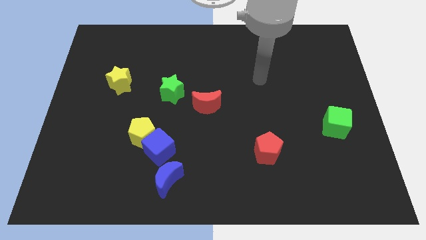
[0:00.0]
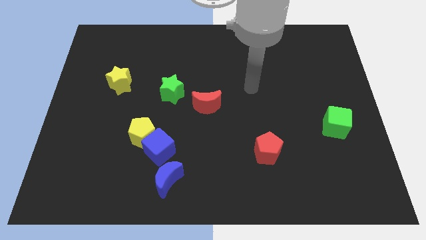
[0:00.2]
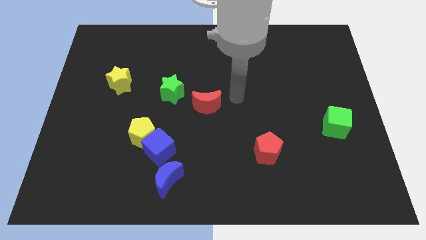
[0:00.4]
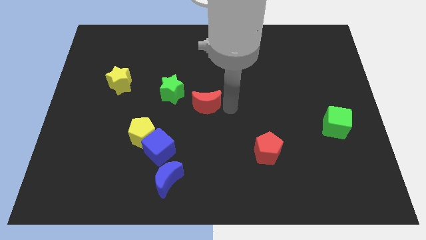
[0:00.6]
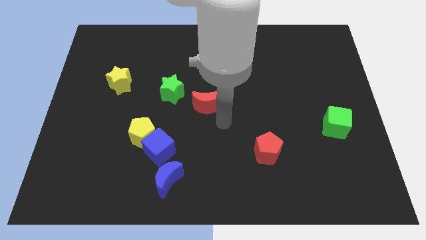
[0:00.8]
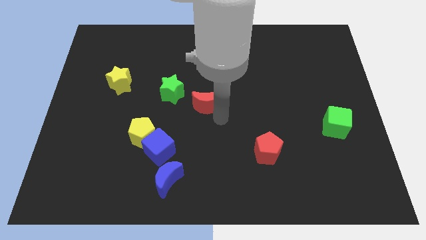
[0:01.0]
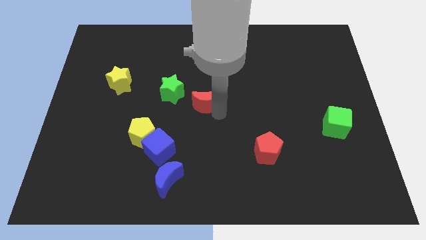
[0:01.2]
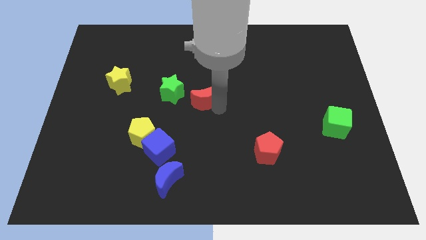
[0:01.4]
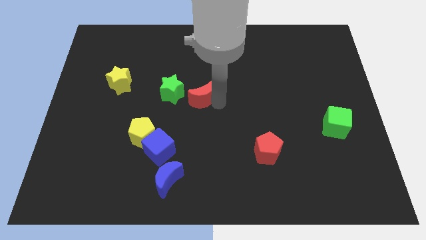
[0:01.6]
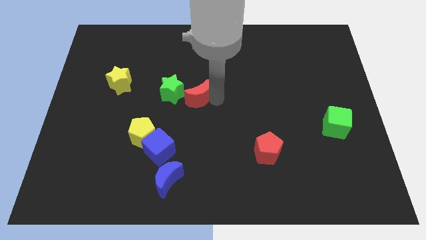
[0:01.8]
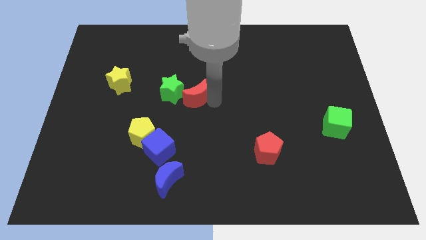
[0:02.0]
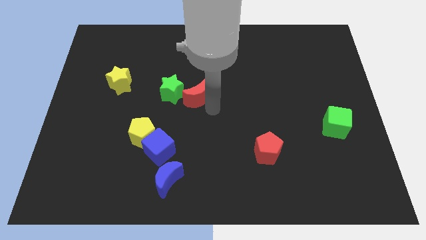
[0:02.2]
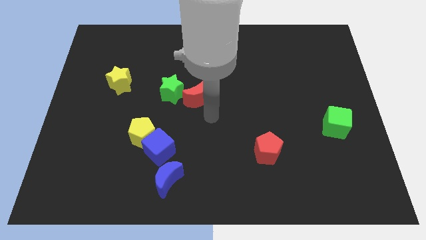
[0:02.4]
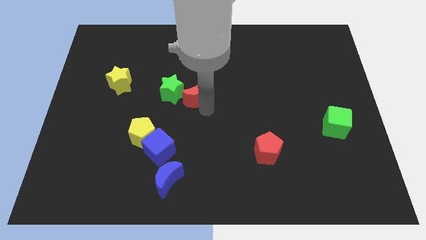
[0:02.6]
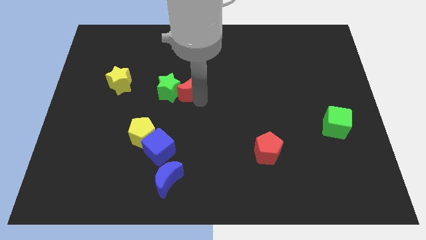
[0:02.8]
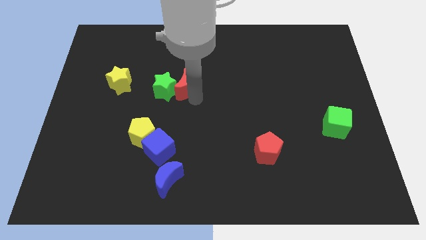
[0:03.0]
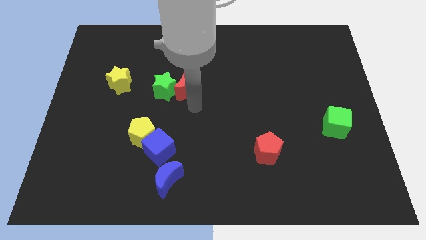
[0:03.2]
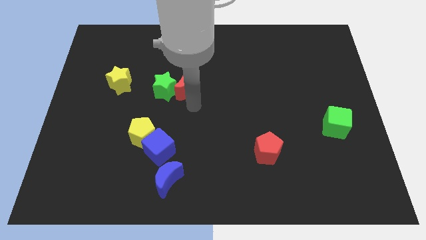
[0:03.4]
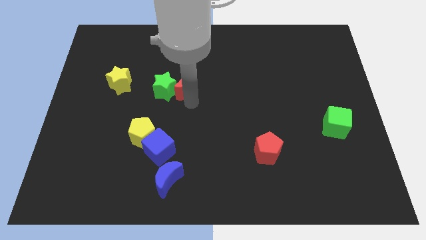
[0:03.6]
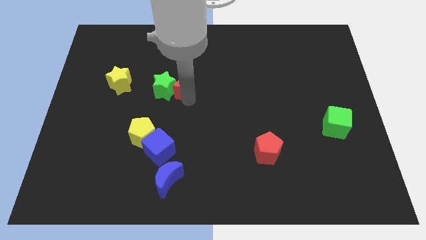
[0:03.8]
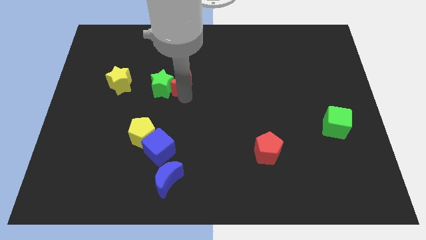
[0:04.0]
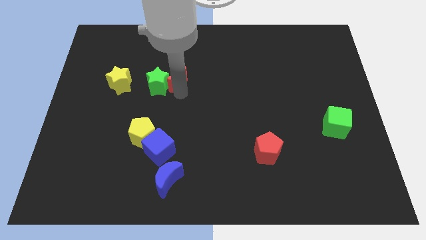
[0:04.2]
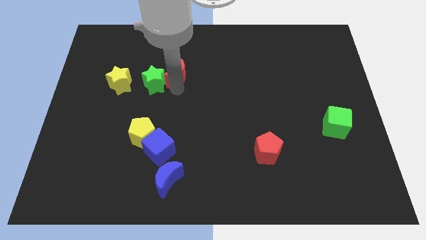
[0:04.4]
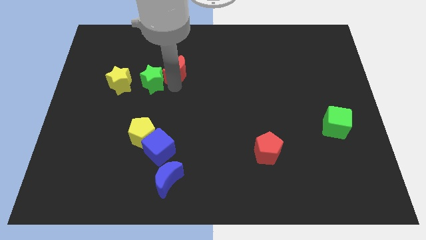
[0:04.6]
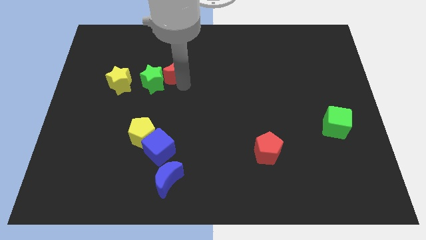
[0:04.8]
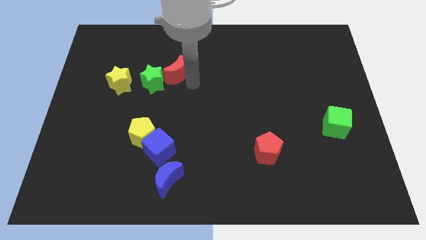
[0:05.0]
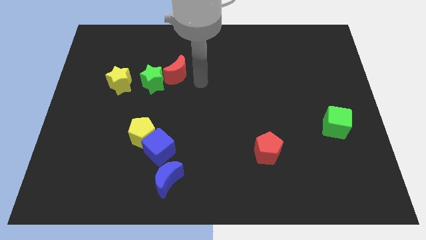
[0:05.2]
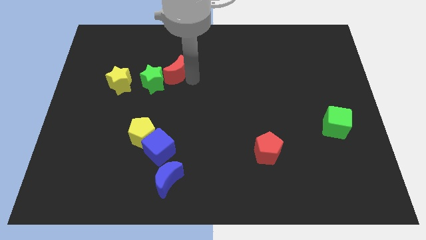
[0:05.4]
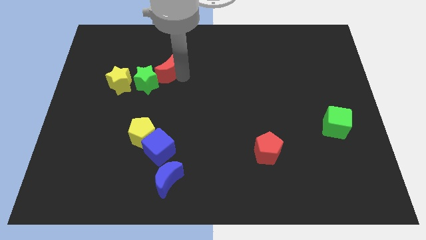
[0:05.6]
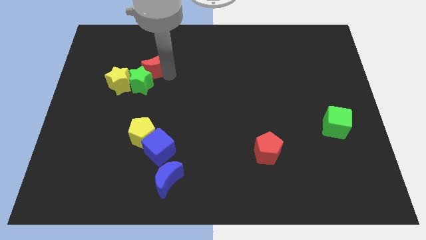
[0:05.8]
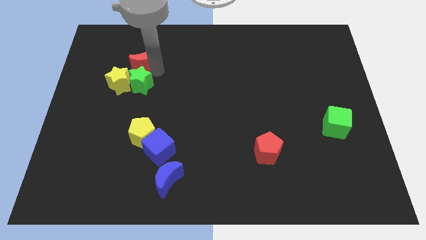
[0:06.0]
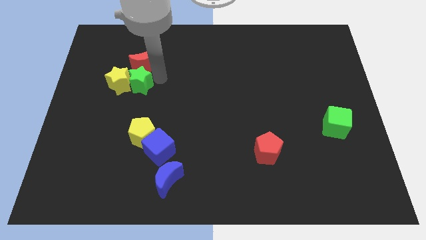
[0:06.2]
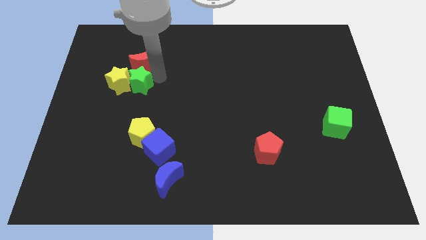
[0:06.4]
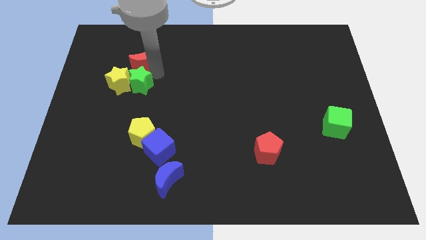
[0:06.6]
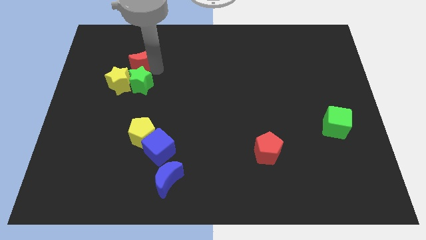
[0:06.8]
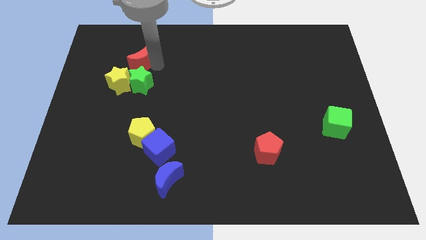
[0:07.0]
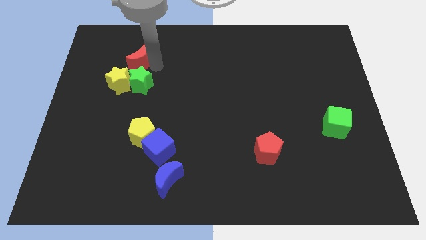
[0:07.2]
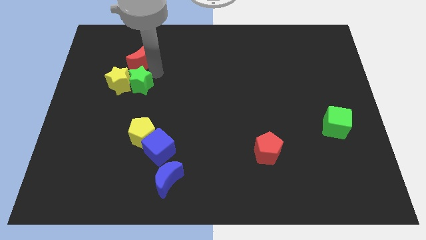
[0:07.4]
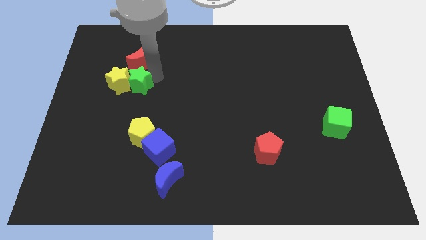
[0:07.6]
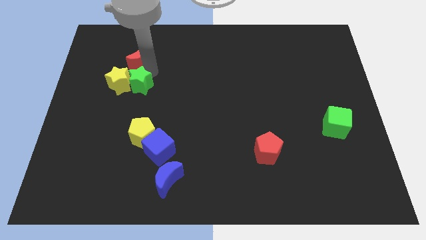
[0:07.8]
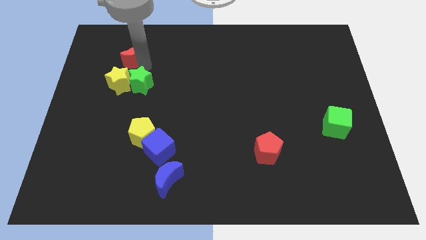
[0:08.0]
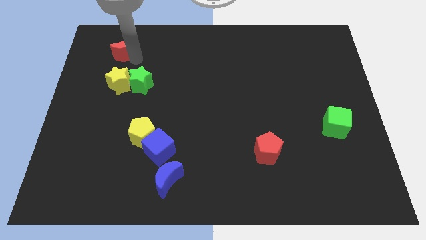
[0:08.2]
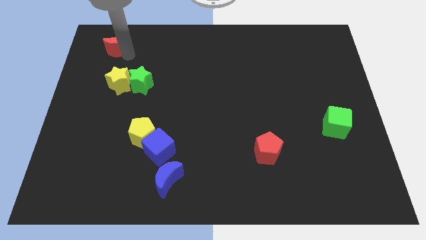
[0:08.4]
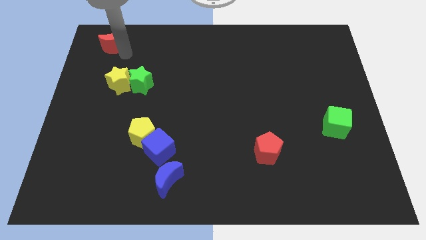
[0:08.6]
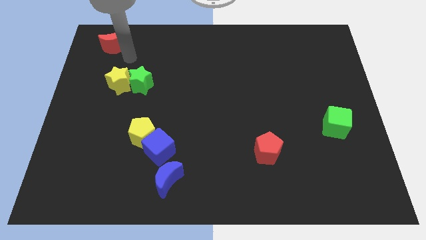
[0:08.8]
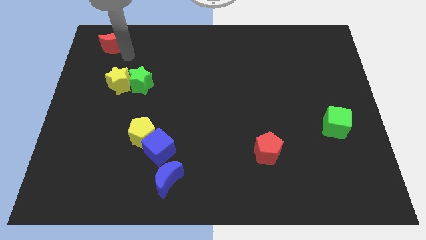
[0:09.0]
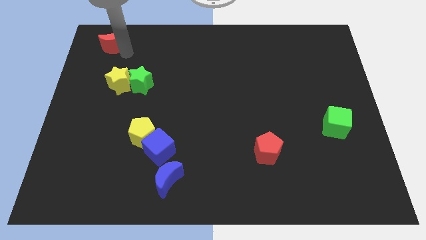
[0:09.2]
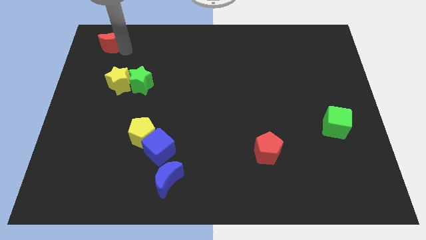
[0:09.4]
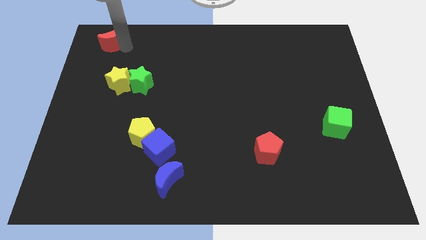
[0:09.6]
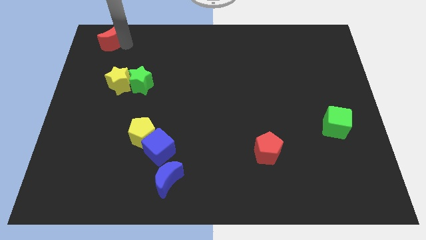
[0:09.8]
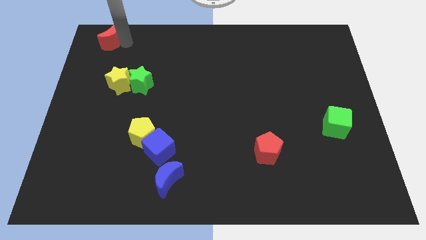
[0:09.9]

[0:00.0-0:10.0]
slide the red moon to the upper left corner

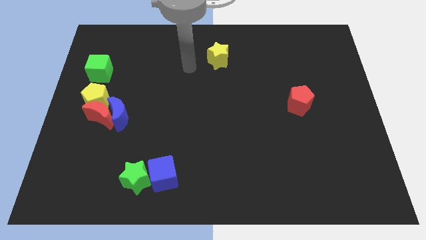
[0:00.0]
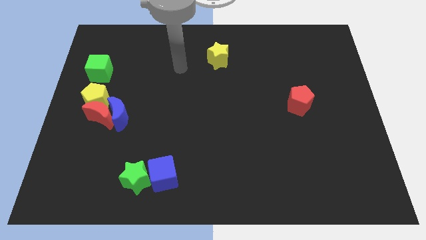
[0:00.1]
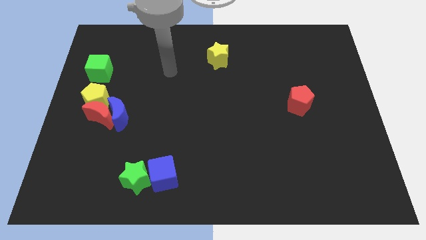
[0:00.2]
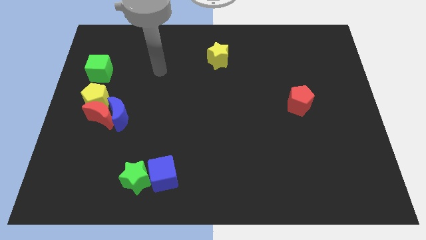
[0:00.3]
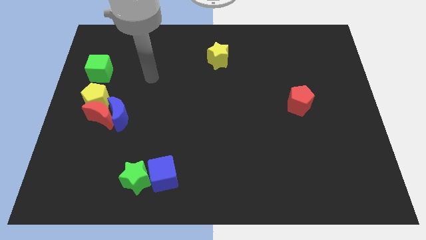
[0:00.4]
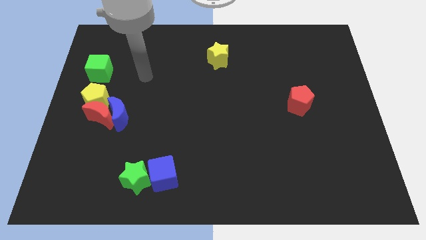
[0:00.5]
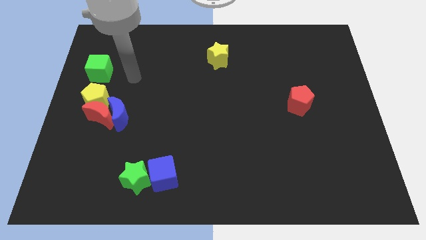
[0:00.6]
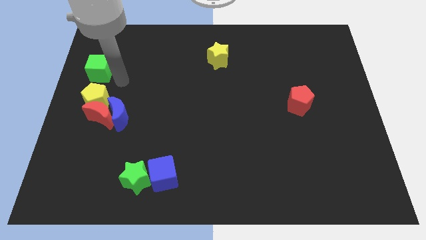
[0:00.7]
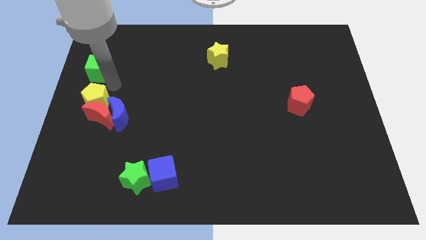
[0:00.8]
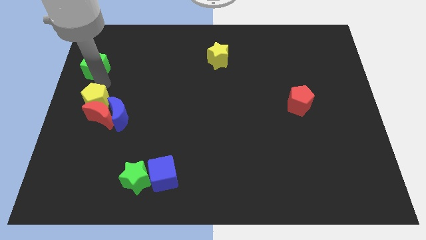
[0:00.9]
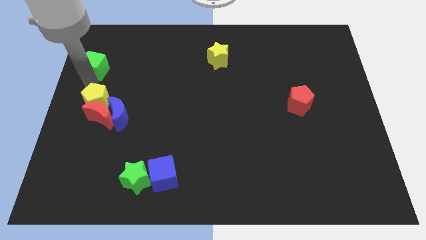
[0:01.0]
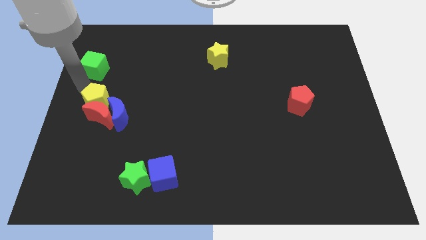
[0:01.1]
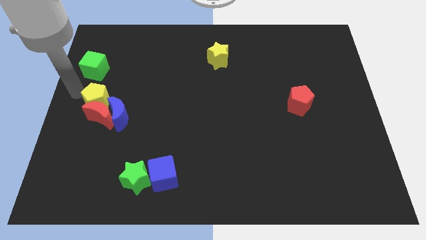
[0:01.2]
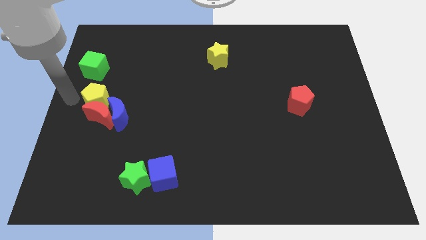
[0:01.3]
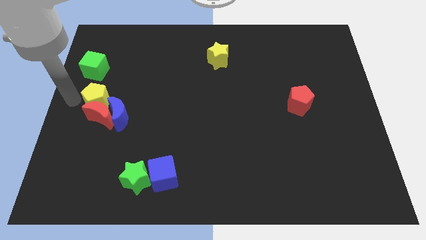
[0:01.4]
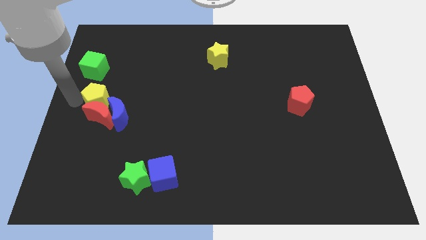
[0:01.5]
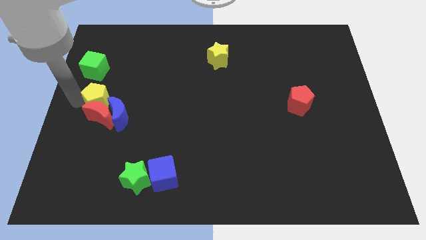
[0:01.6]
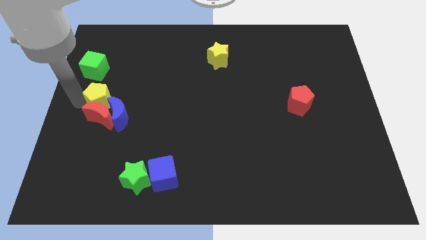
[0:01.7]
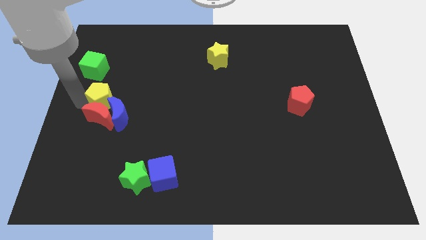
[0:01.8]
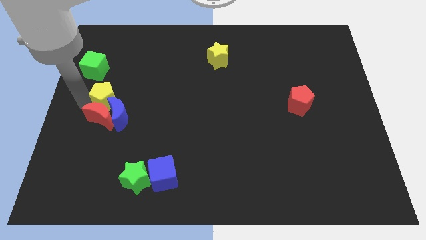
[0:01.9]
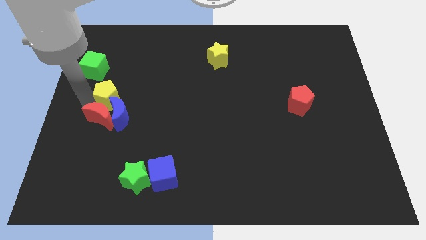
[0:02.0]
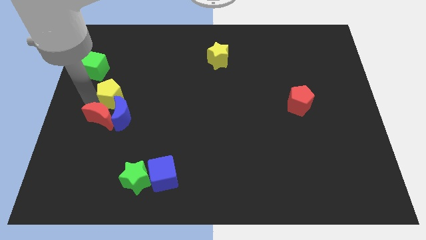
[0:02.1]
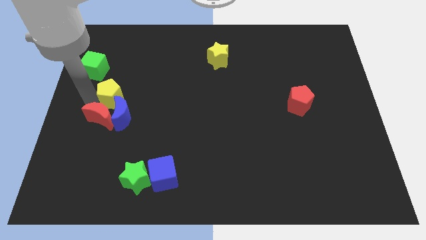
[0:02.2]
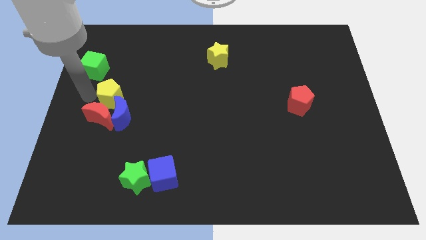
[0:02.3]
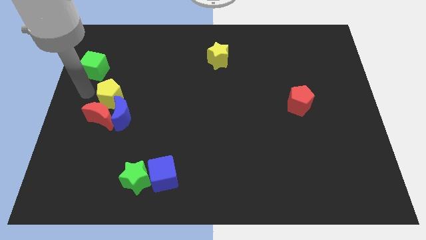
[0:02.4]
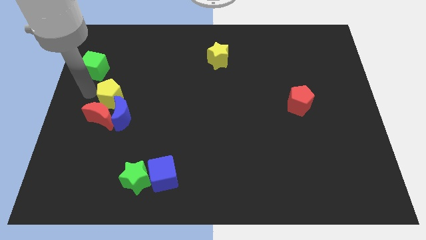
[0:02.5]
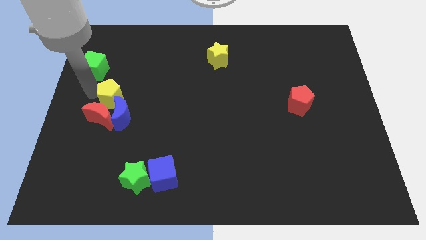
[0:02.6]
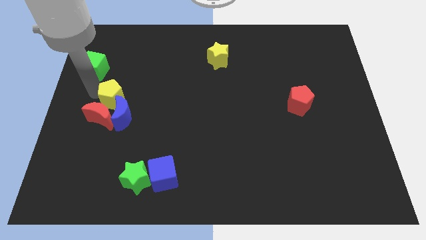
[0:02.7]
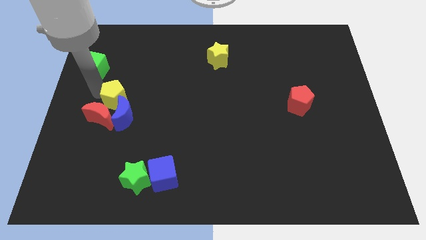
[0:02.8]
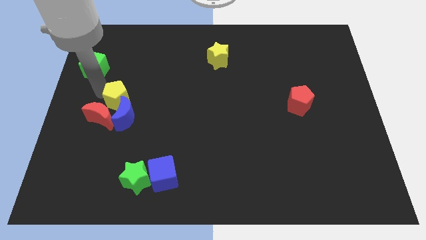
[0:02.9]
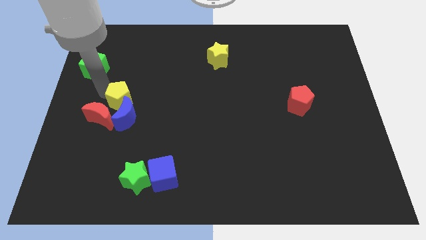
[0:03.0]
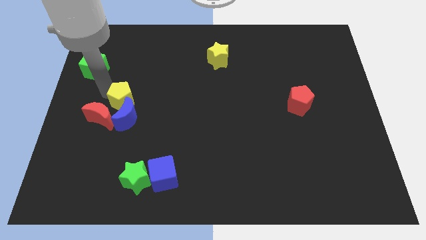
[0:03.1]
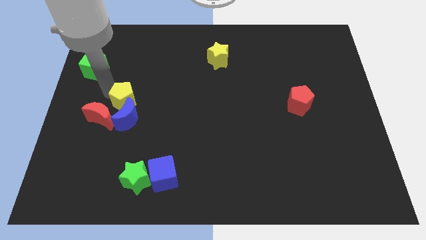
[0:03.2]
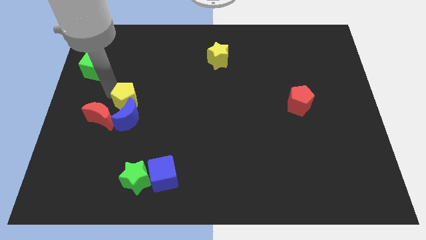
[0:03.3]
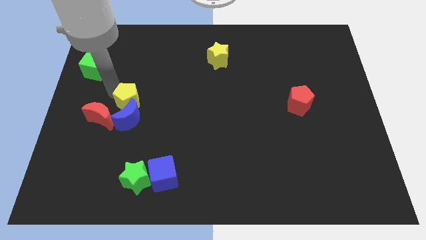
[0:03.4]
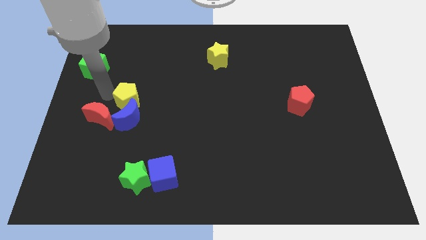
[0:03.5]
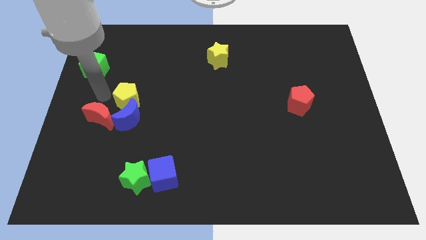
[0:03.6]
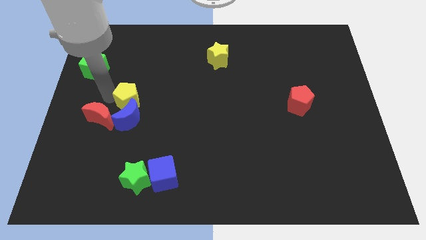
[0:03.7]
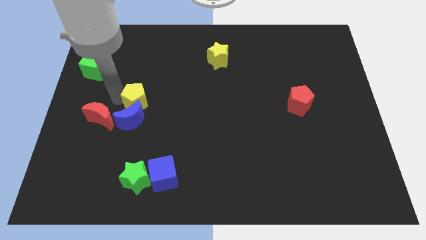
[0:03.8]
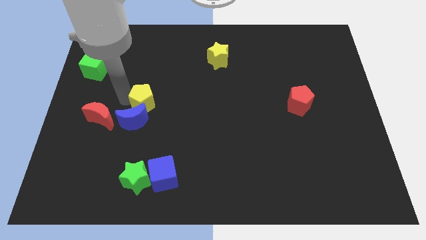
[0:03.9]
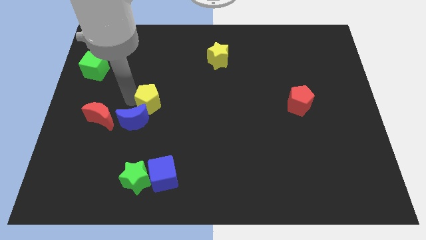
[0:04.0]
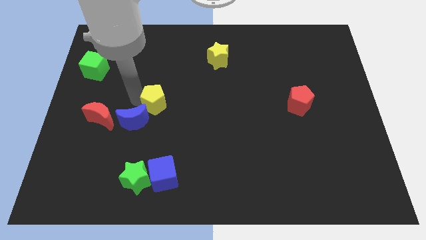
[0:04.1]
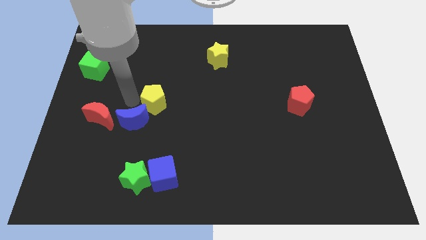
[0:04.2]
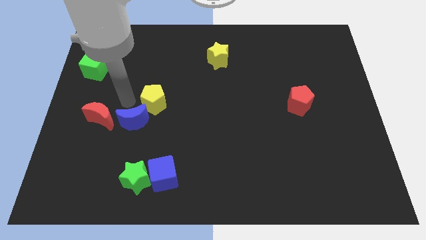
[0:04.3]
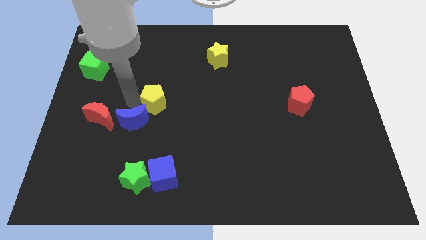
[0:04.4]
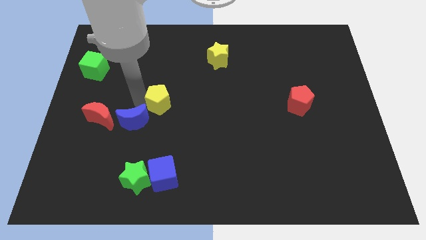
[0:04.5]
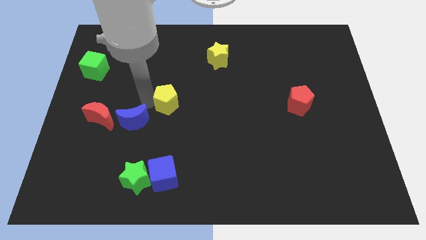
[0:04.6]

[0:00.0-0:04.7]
put the yellow pentagon to the middle of the board
